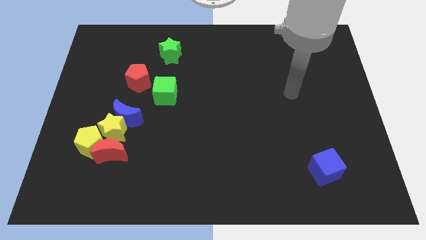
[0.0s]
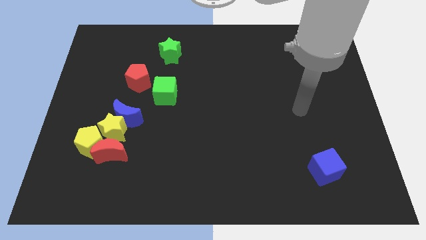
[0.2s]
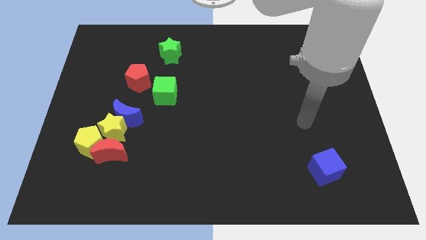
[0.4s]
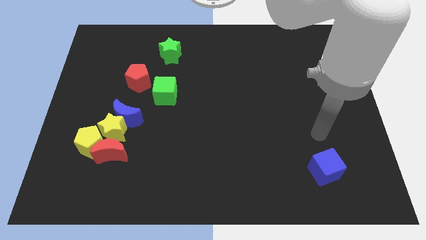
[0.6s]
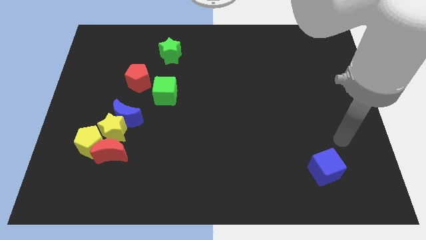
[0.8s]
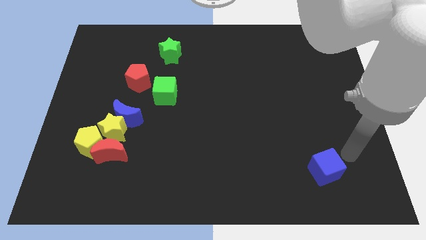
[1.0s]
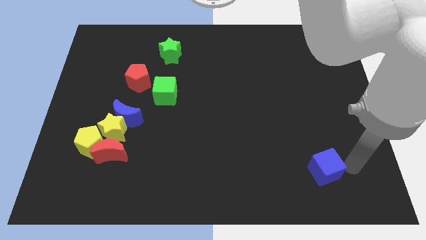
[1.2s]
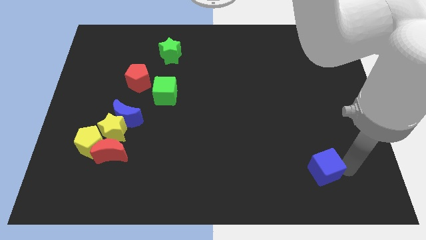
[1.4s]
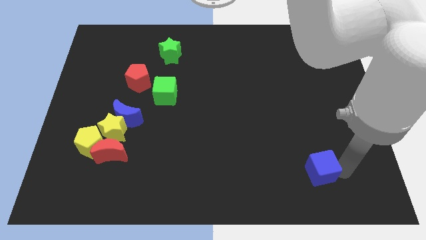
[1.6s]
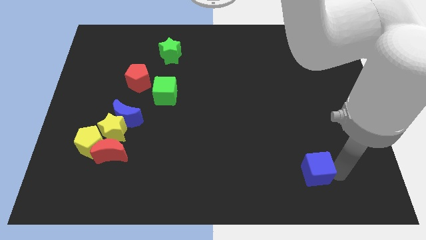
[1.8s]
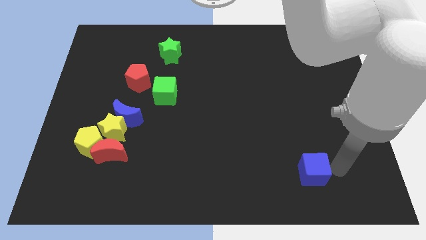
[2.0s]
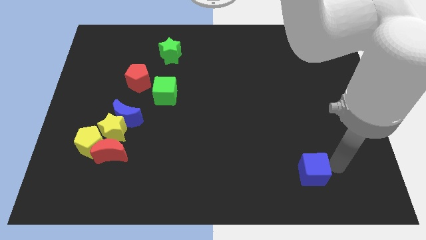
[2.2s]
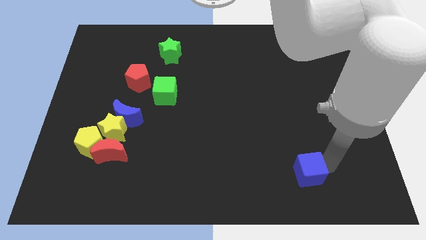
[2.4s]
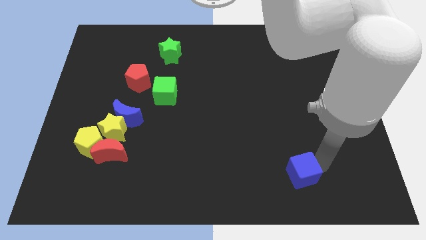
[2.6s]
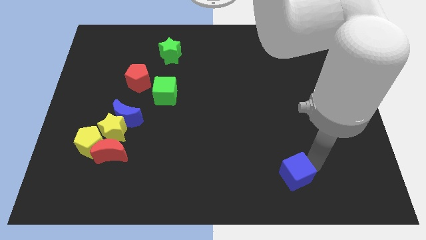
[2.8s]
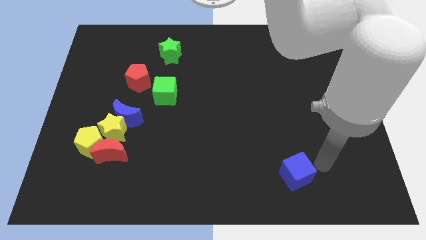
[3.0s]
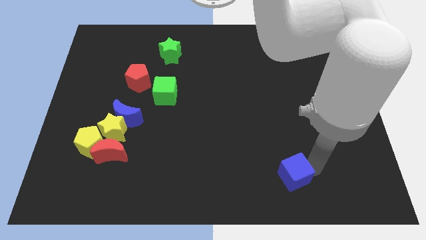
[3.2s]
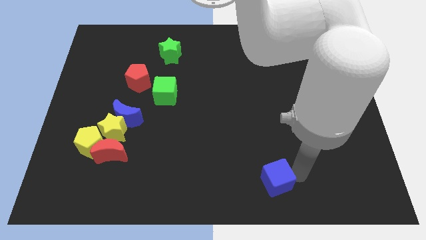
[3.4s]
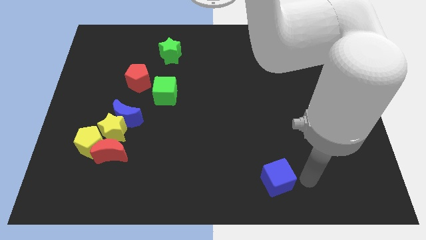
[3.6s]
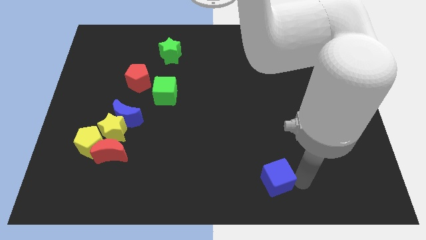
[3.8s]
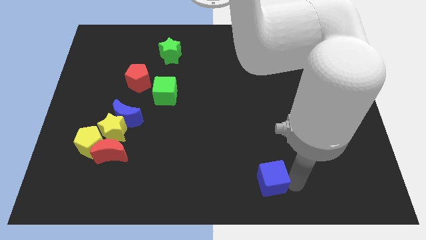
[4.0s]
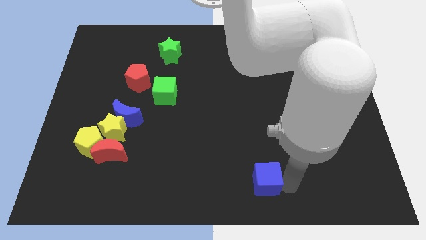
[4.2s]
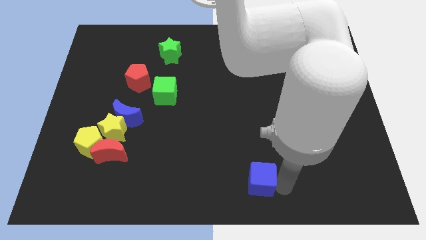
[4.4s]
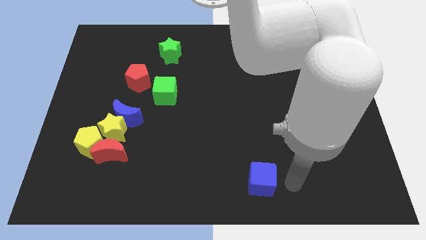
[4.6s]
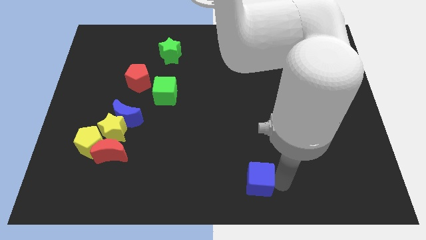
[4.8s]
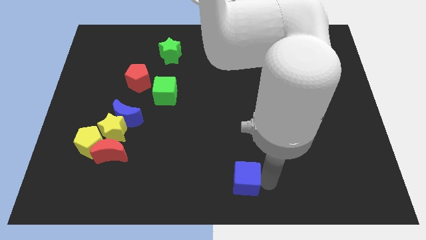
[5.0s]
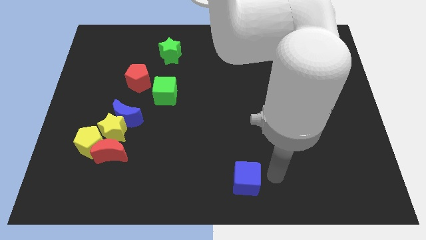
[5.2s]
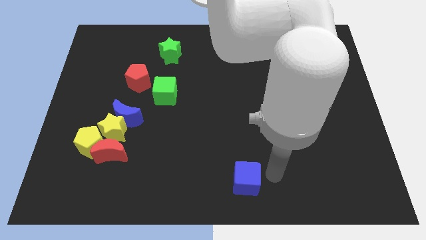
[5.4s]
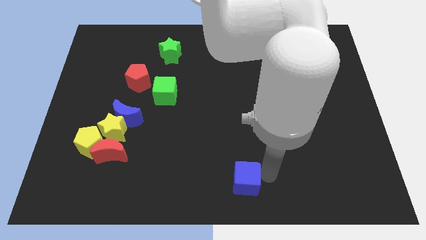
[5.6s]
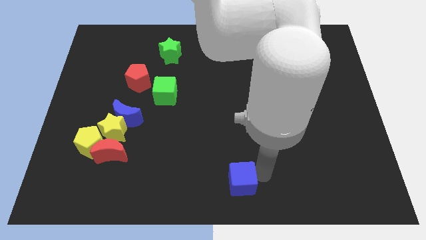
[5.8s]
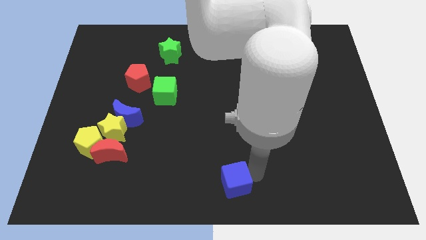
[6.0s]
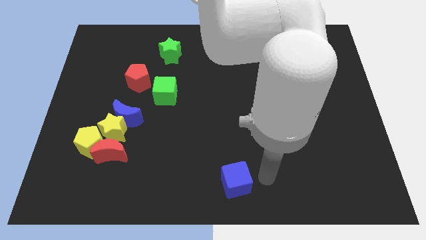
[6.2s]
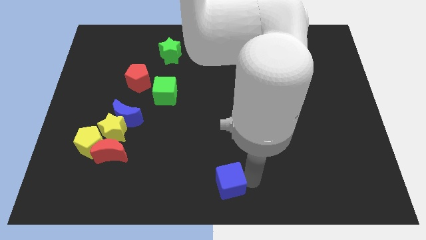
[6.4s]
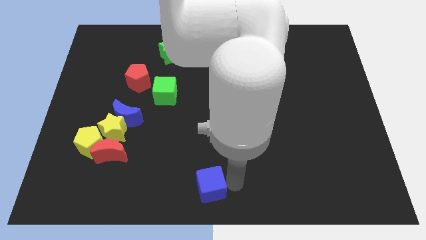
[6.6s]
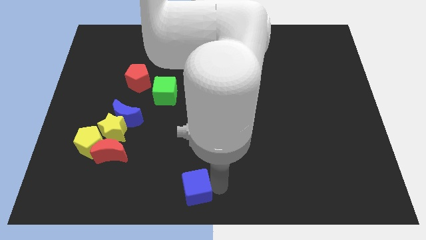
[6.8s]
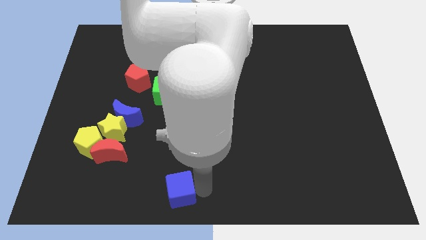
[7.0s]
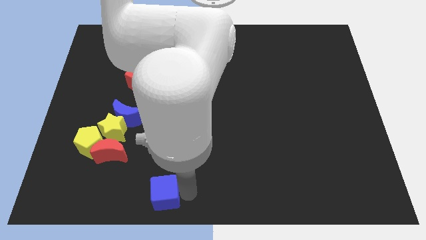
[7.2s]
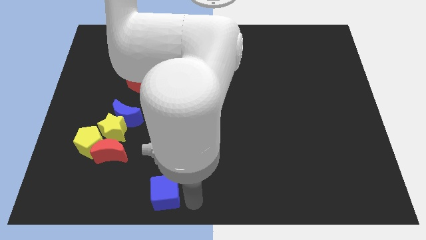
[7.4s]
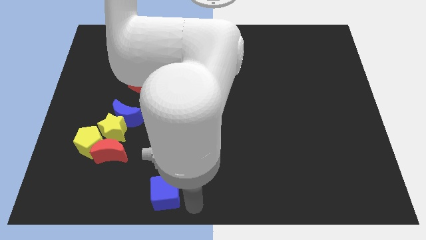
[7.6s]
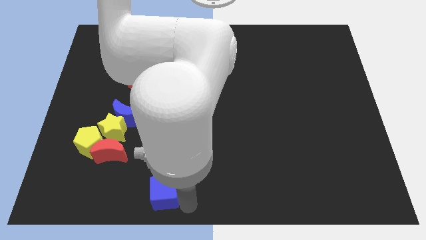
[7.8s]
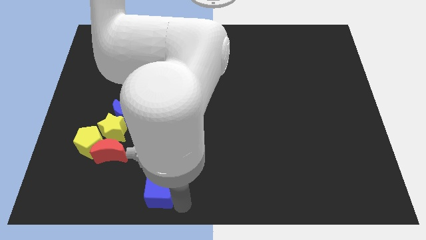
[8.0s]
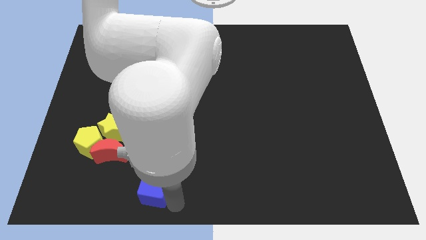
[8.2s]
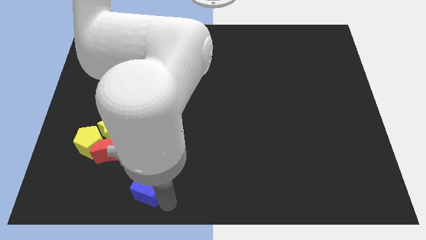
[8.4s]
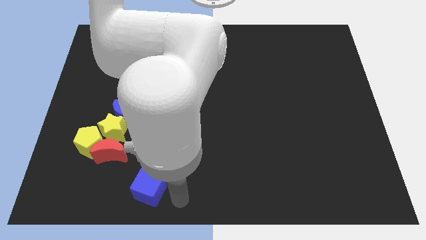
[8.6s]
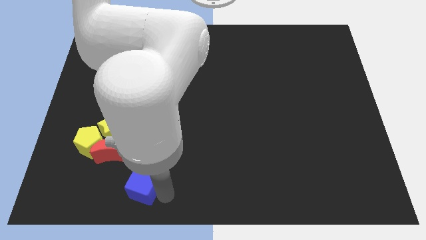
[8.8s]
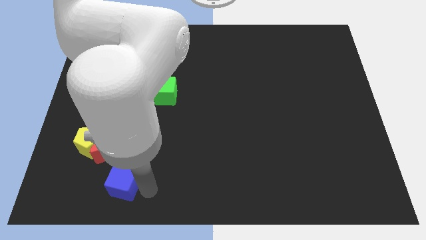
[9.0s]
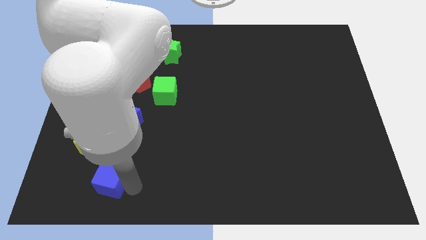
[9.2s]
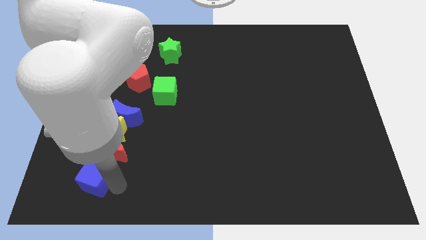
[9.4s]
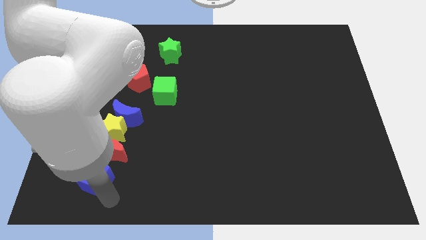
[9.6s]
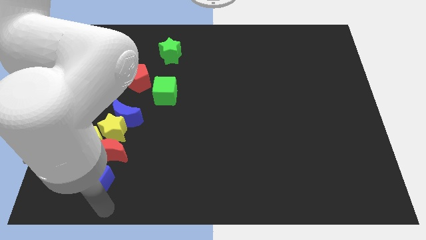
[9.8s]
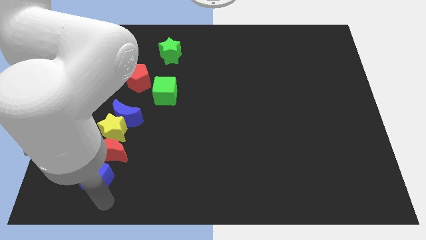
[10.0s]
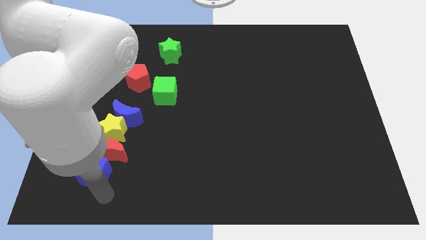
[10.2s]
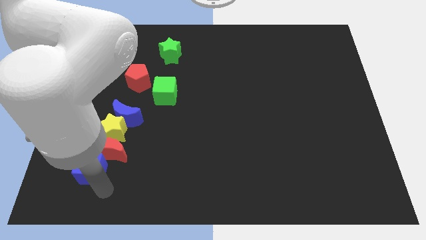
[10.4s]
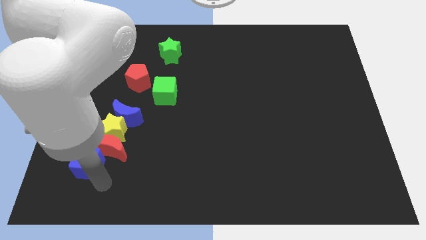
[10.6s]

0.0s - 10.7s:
put the blue cube next to the yellow pentagon

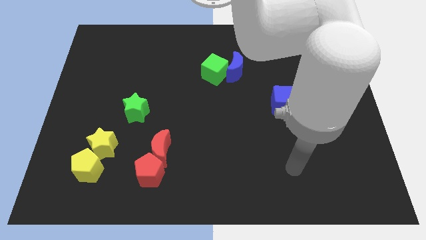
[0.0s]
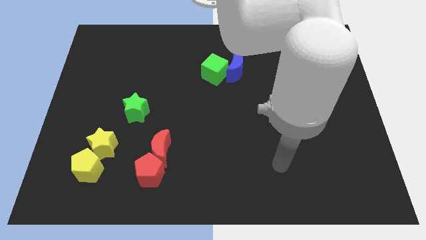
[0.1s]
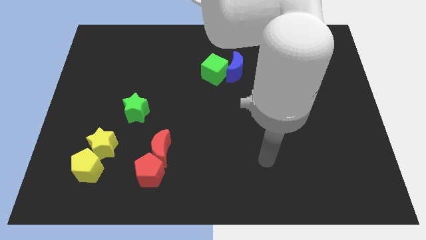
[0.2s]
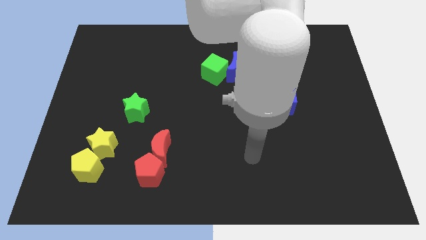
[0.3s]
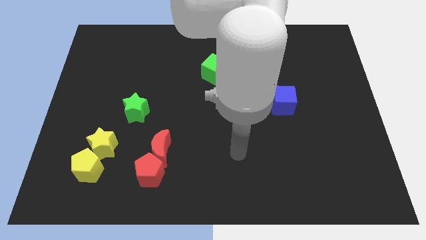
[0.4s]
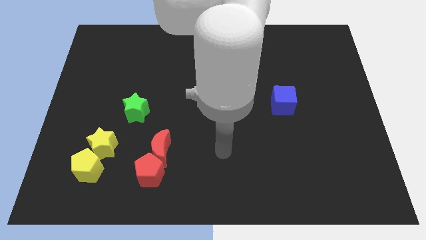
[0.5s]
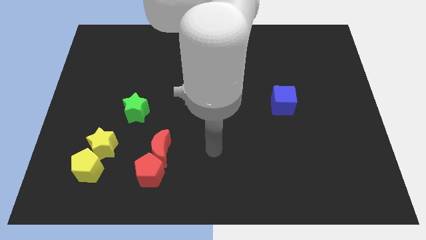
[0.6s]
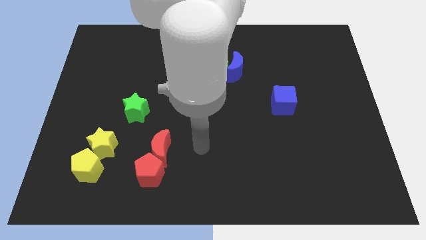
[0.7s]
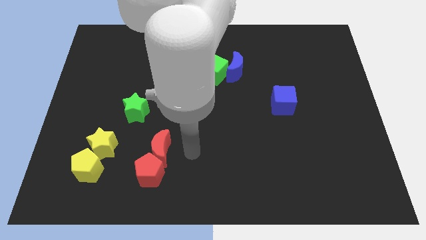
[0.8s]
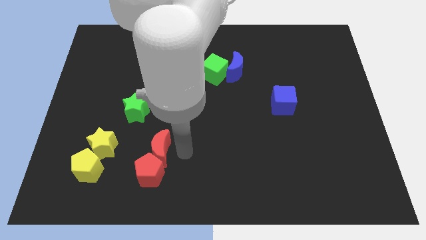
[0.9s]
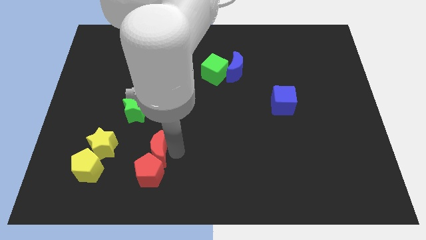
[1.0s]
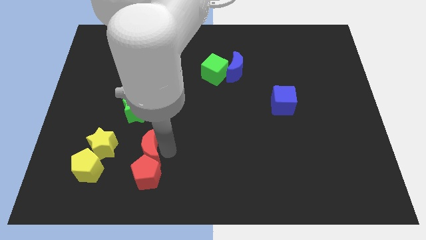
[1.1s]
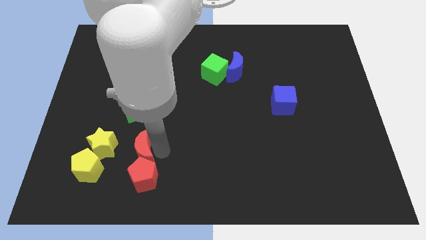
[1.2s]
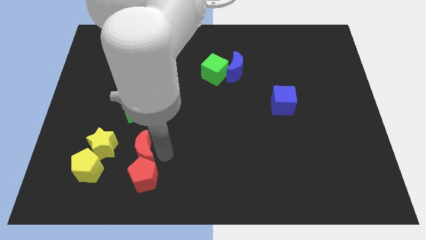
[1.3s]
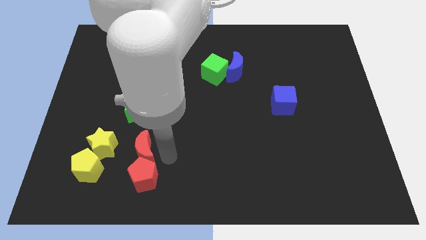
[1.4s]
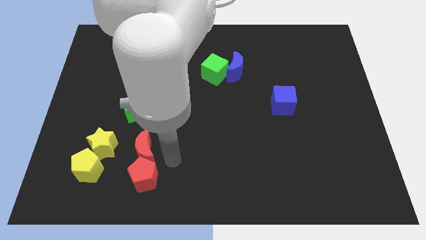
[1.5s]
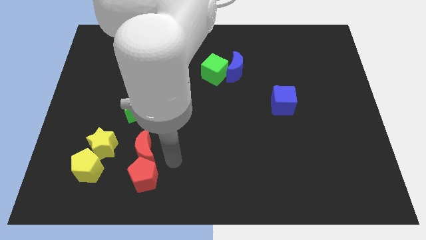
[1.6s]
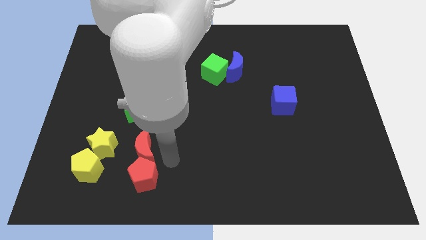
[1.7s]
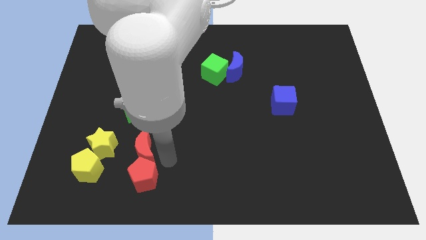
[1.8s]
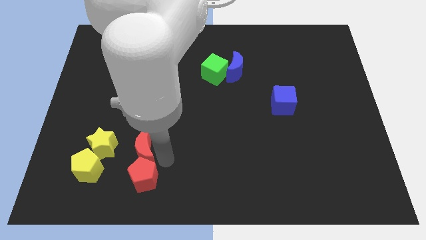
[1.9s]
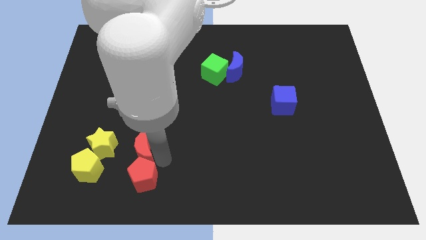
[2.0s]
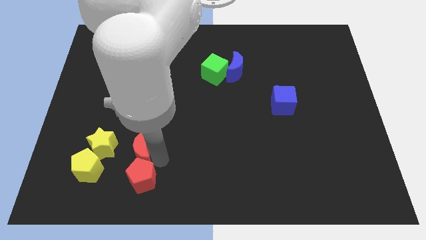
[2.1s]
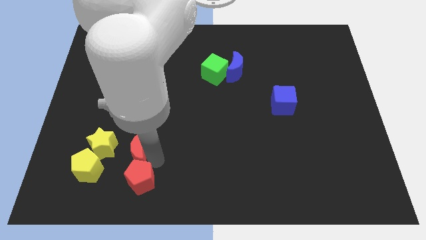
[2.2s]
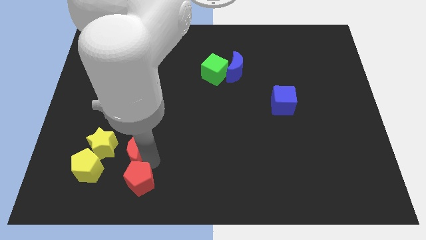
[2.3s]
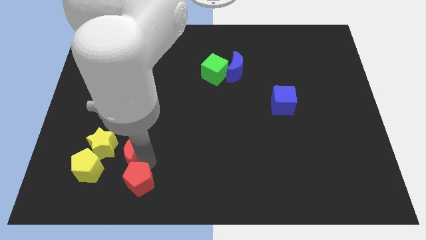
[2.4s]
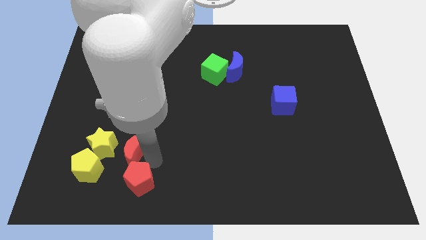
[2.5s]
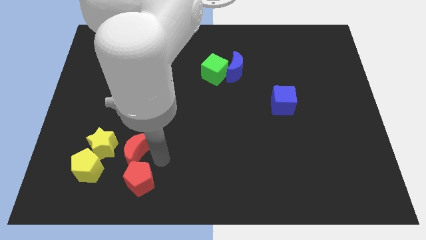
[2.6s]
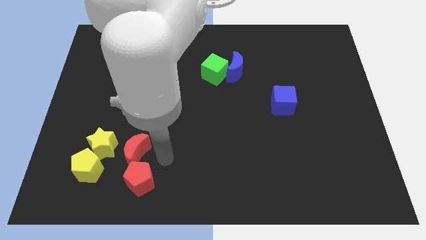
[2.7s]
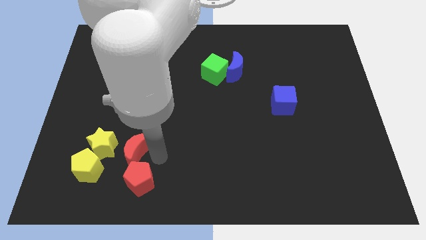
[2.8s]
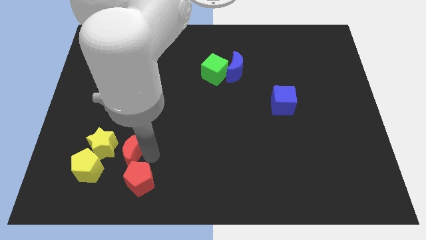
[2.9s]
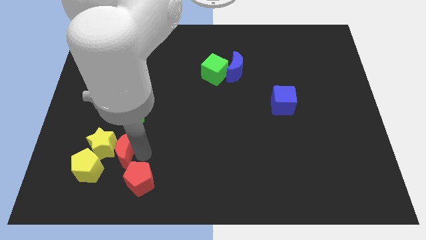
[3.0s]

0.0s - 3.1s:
slide the red moon towards the yellow star
